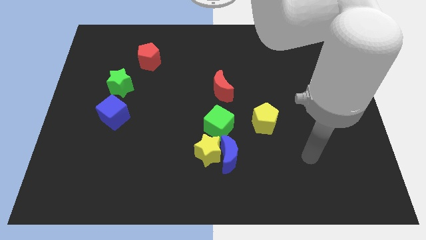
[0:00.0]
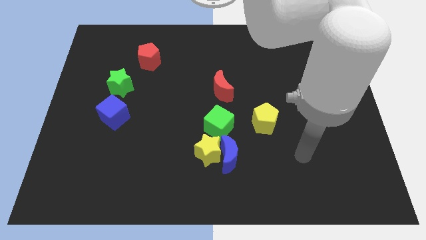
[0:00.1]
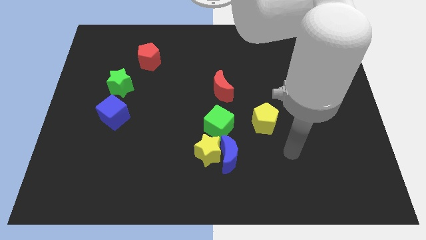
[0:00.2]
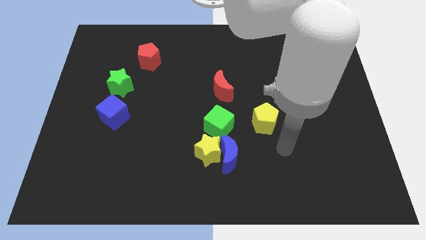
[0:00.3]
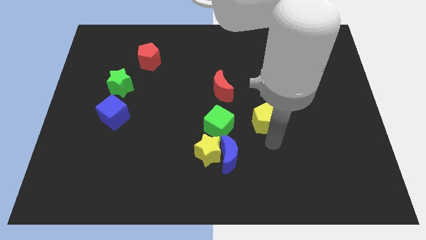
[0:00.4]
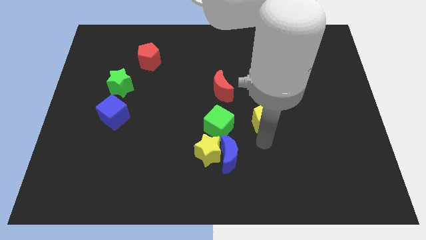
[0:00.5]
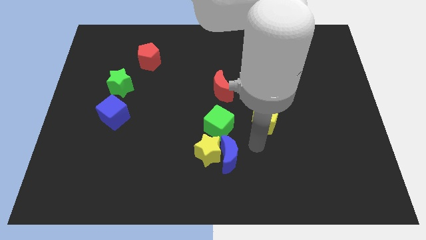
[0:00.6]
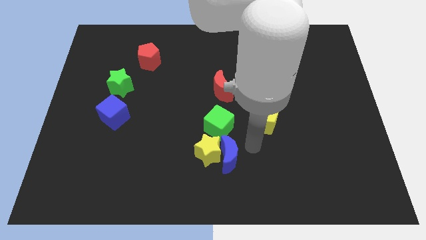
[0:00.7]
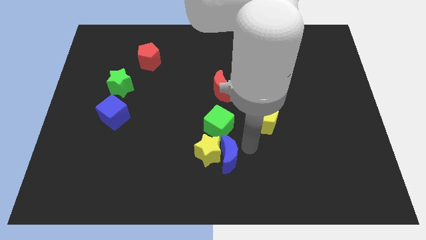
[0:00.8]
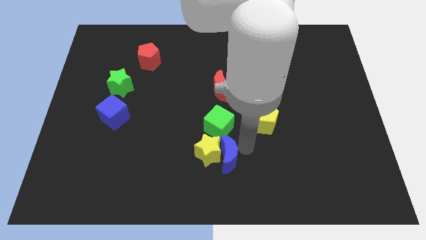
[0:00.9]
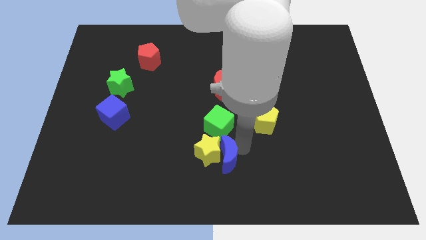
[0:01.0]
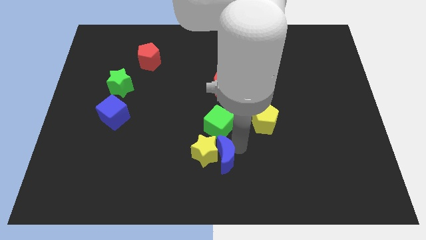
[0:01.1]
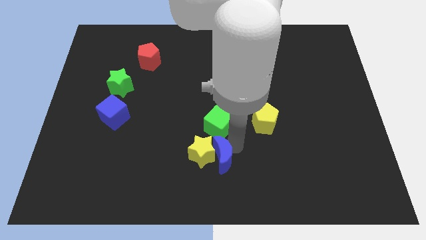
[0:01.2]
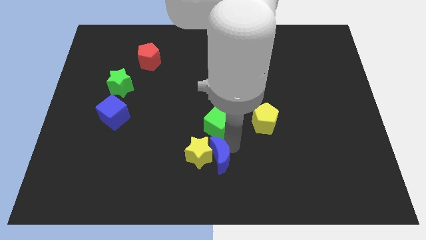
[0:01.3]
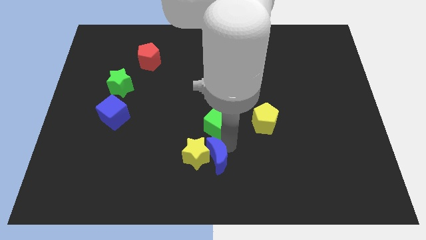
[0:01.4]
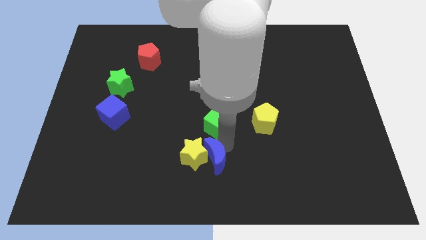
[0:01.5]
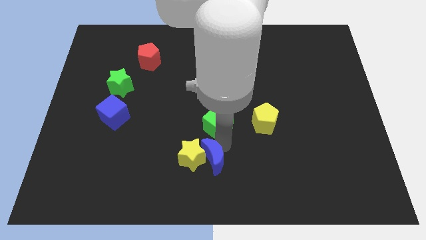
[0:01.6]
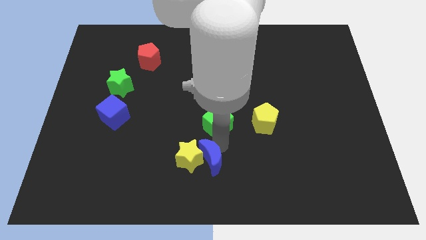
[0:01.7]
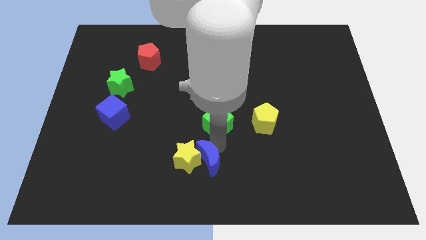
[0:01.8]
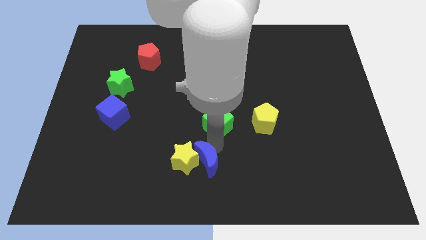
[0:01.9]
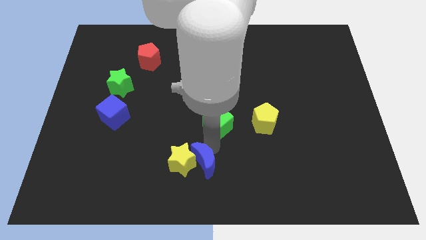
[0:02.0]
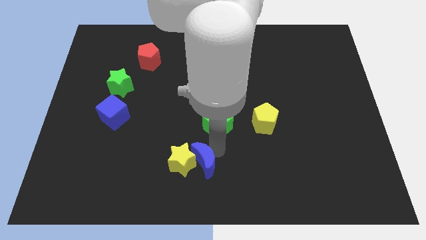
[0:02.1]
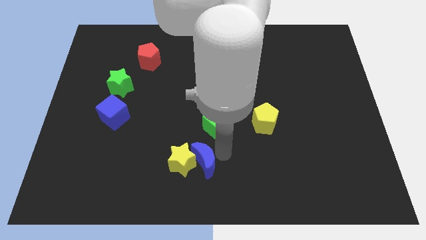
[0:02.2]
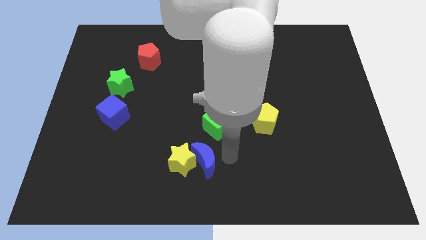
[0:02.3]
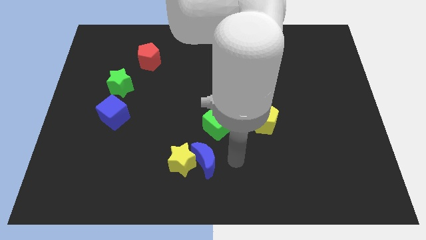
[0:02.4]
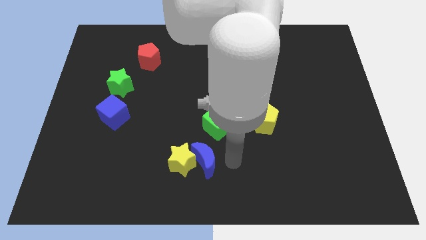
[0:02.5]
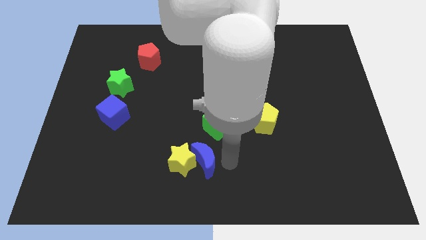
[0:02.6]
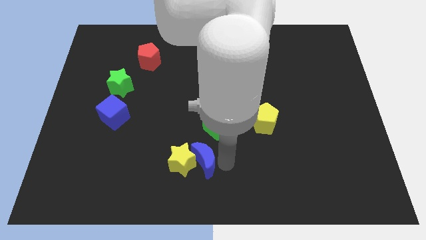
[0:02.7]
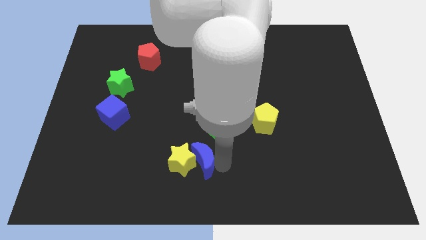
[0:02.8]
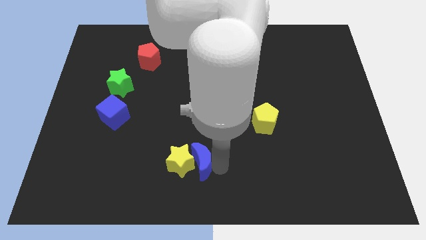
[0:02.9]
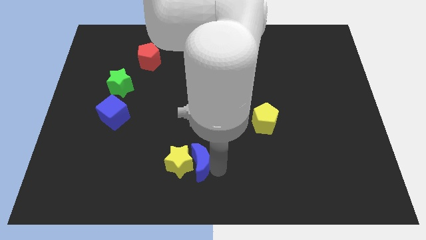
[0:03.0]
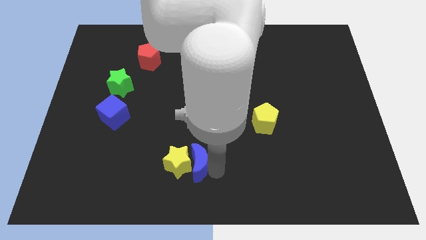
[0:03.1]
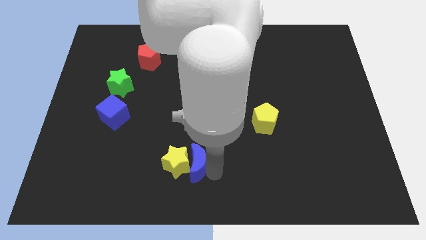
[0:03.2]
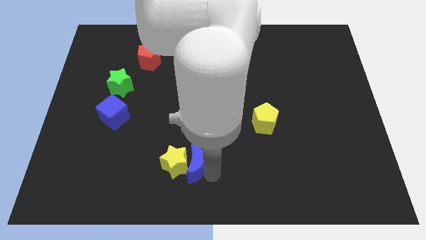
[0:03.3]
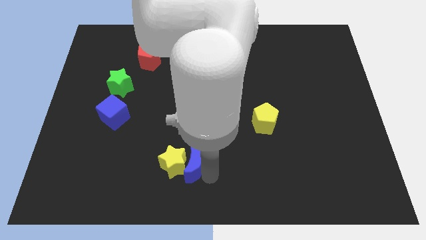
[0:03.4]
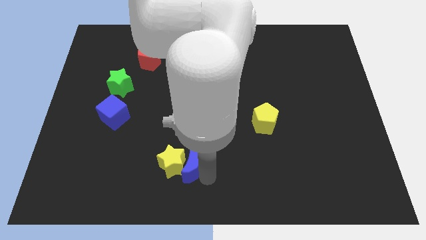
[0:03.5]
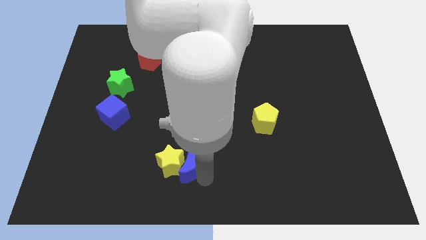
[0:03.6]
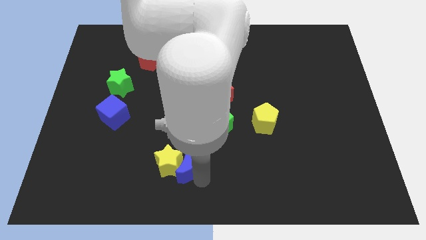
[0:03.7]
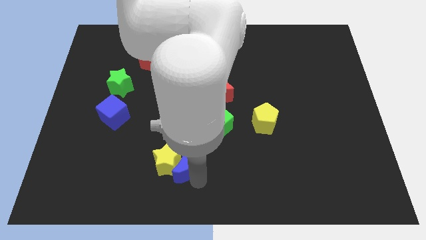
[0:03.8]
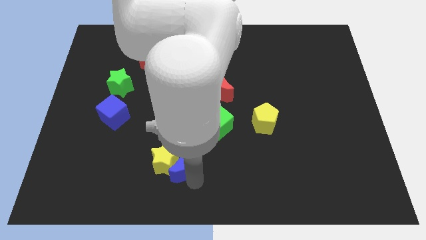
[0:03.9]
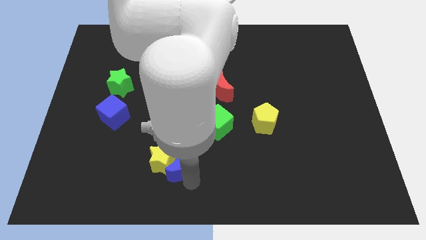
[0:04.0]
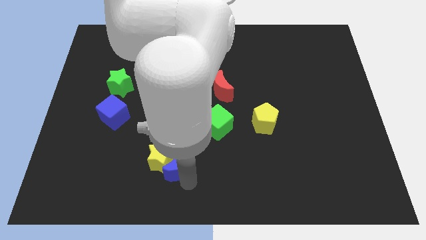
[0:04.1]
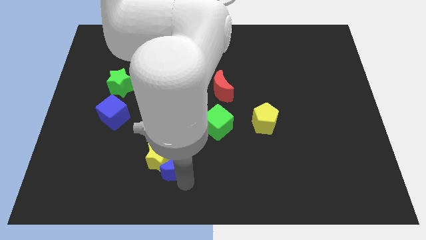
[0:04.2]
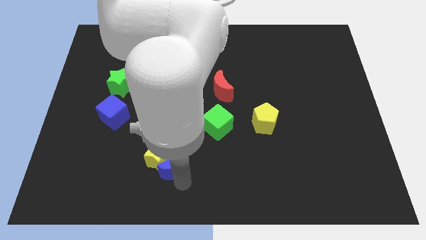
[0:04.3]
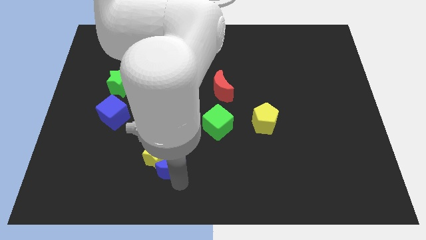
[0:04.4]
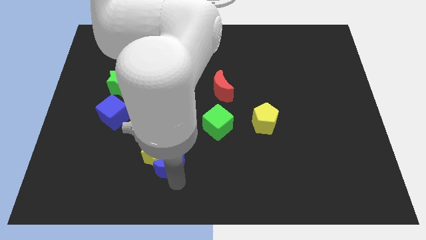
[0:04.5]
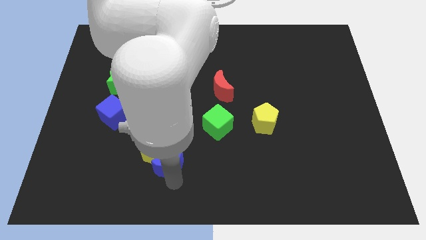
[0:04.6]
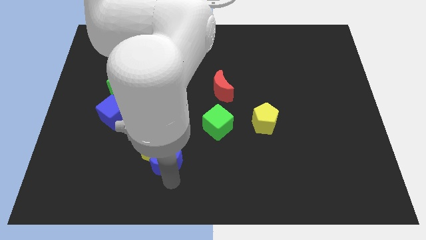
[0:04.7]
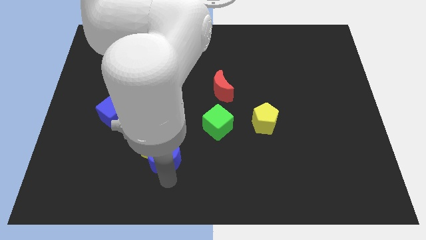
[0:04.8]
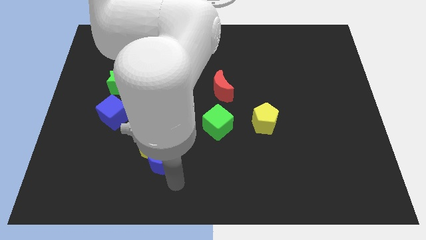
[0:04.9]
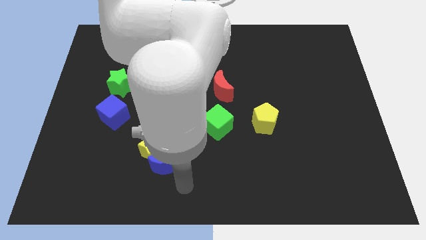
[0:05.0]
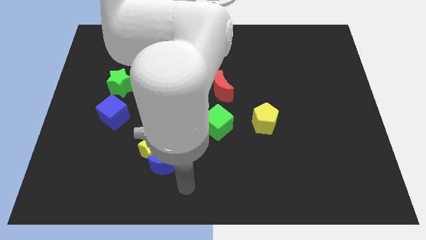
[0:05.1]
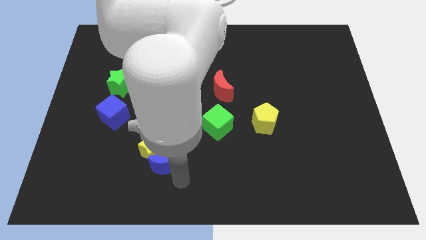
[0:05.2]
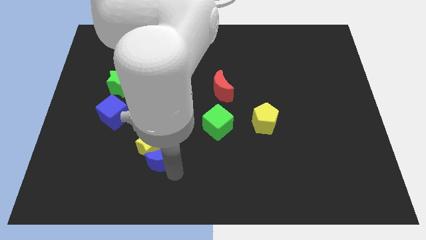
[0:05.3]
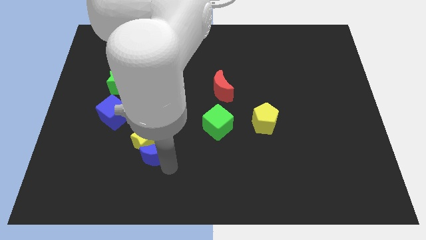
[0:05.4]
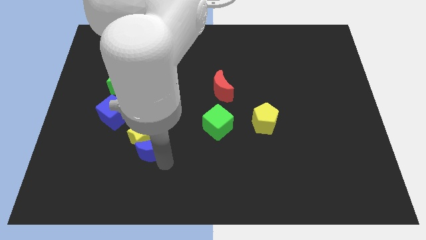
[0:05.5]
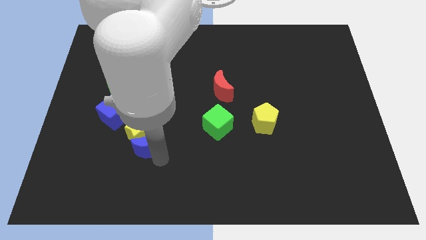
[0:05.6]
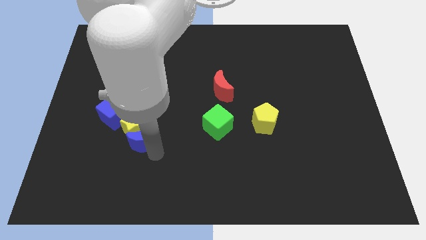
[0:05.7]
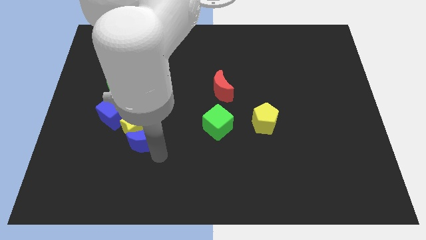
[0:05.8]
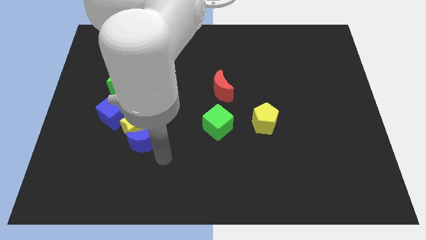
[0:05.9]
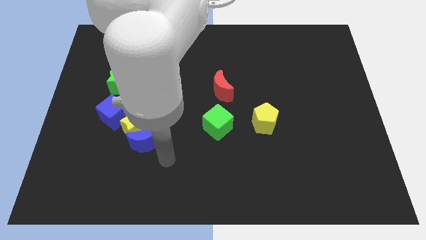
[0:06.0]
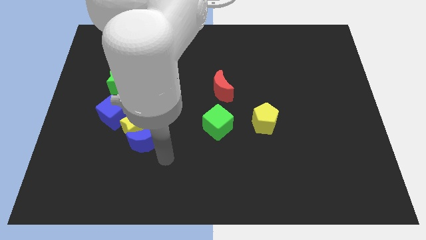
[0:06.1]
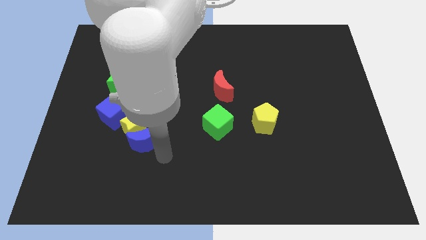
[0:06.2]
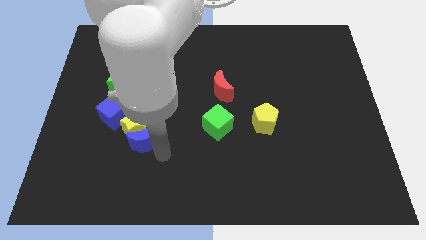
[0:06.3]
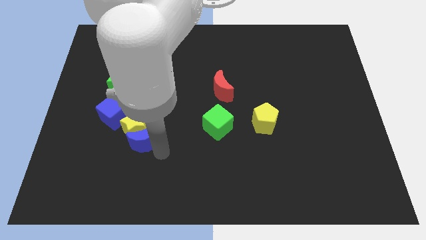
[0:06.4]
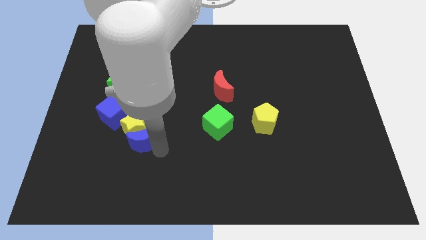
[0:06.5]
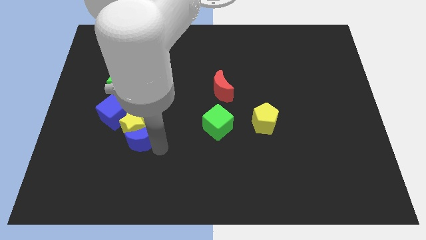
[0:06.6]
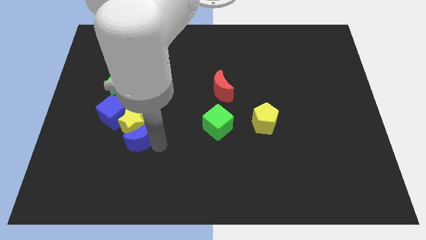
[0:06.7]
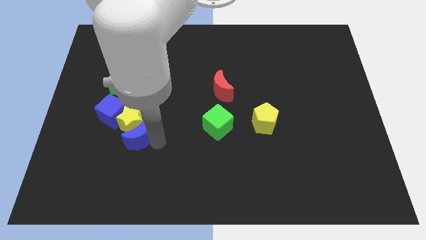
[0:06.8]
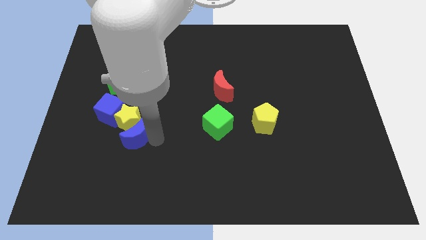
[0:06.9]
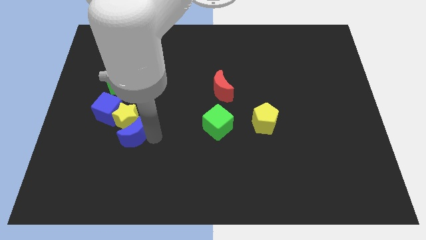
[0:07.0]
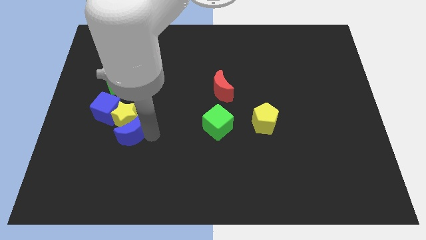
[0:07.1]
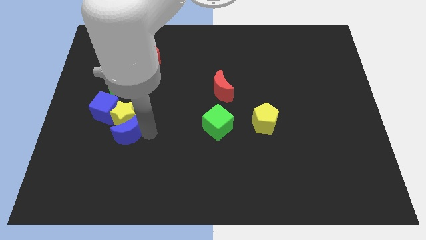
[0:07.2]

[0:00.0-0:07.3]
slide the blue moon to the bottom side of the green star
